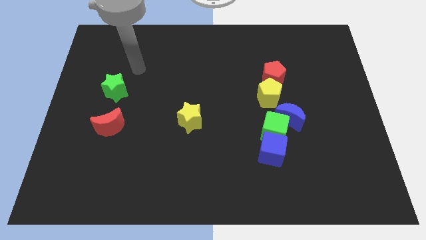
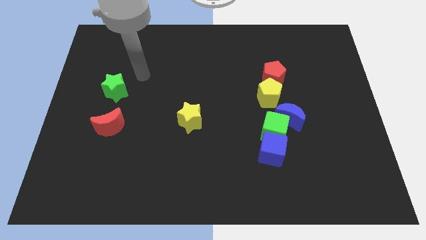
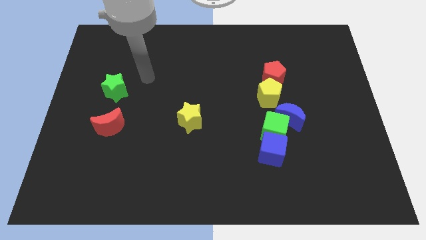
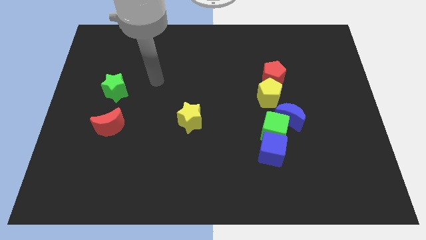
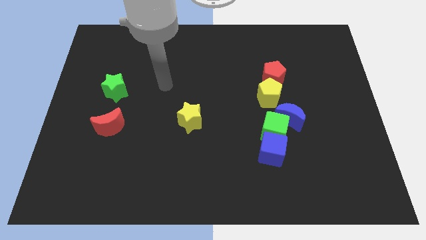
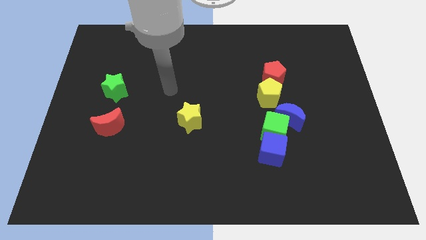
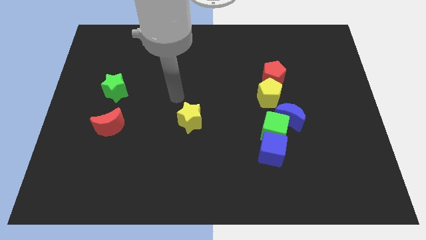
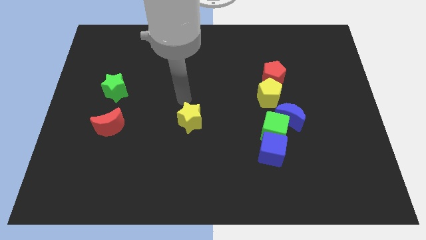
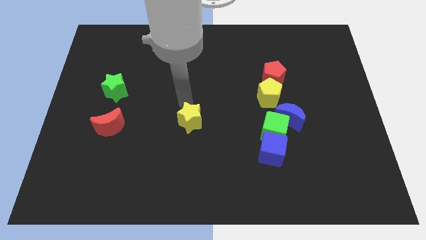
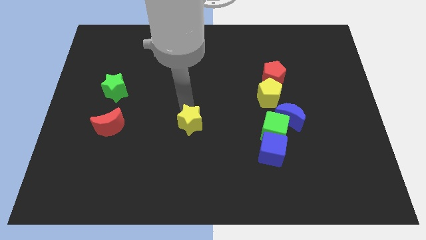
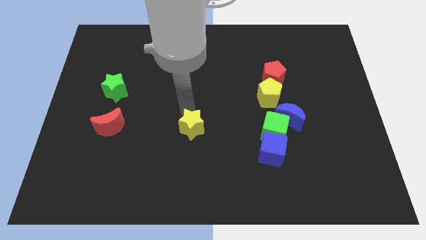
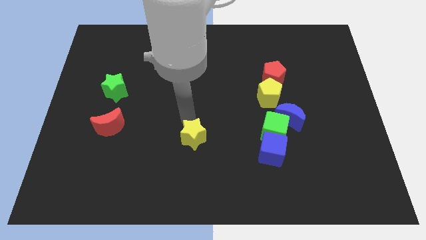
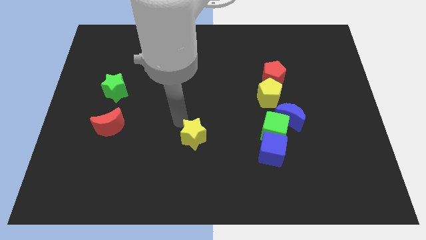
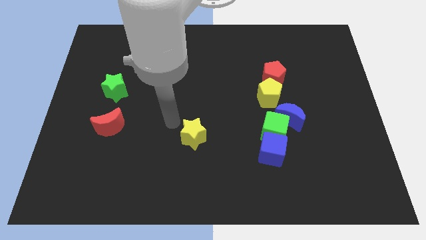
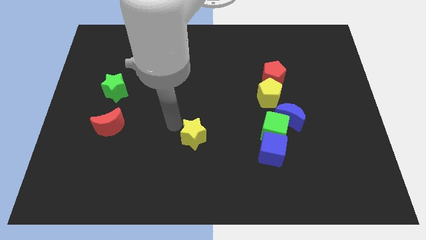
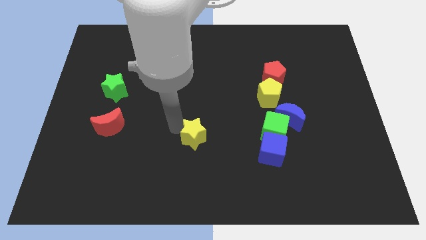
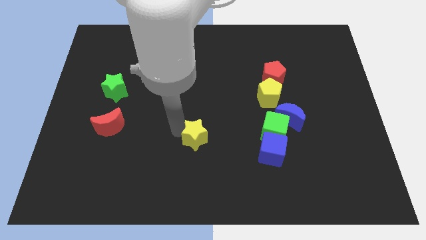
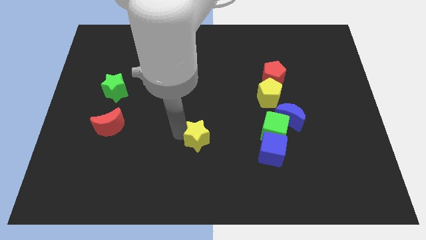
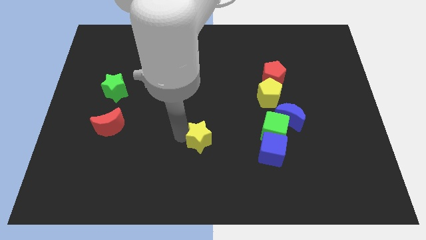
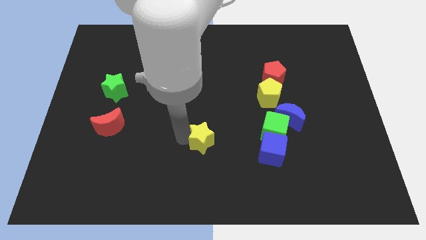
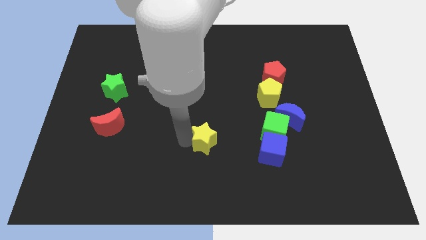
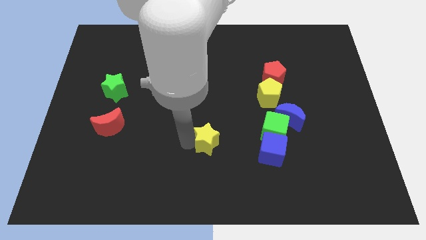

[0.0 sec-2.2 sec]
slide the yellow star somewhat down and then to the right

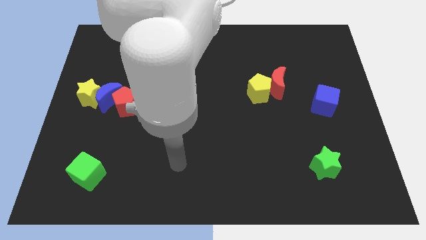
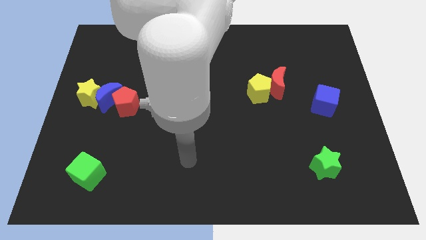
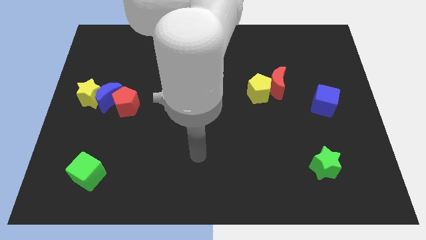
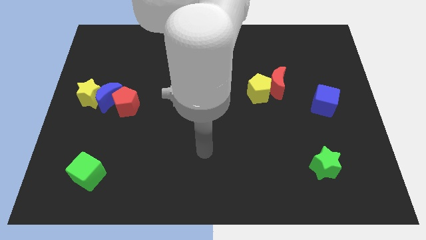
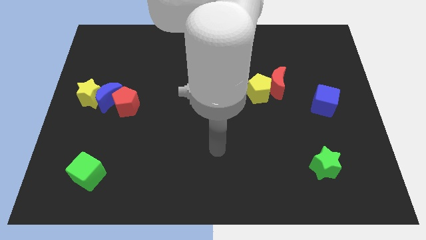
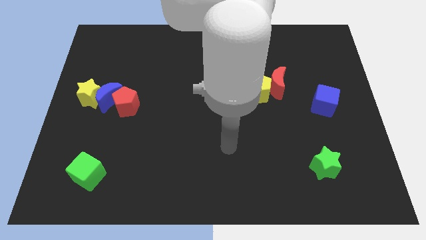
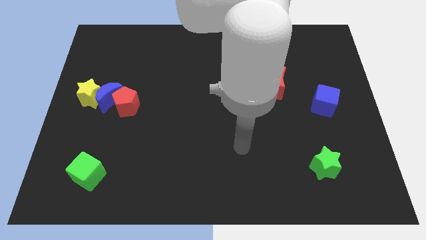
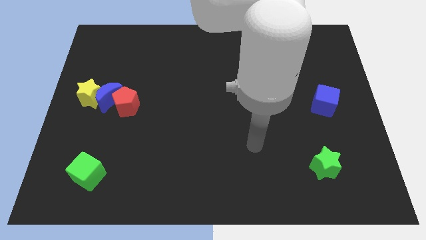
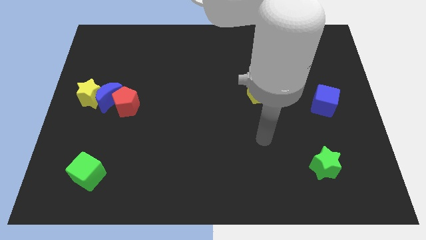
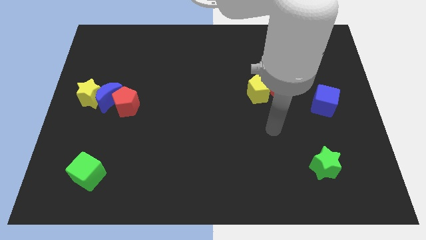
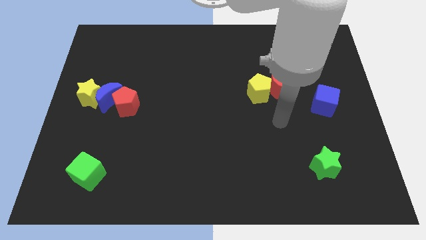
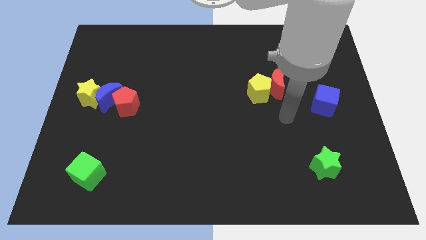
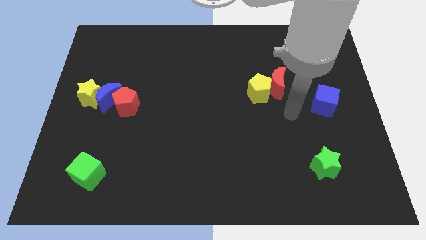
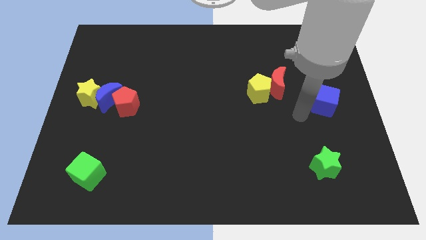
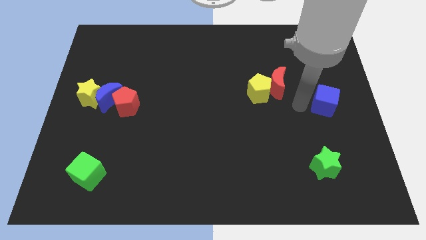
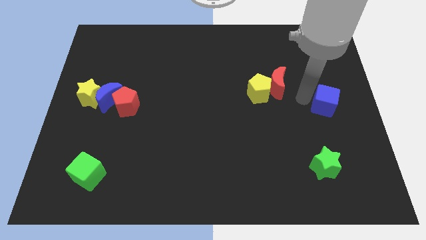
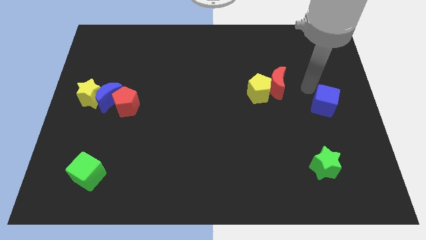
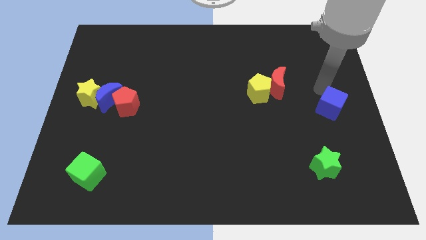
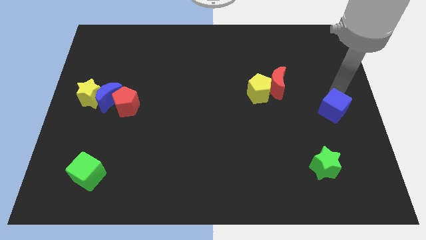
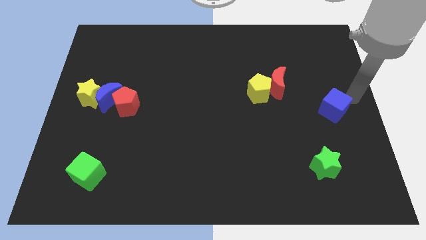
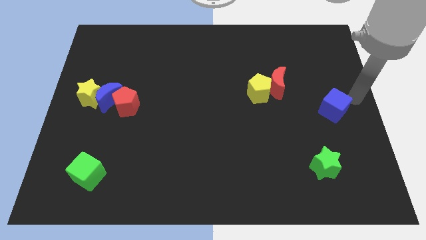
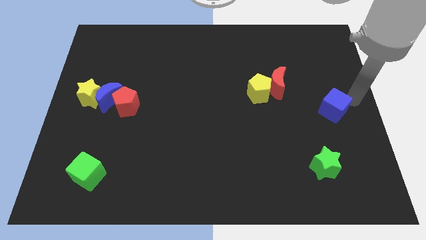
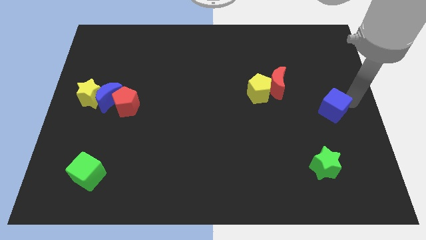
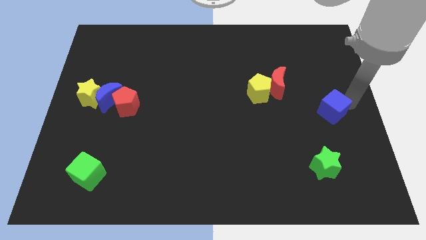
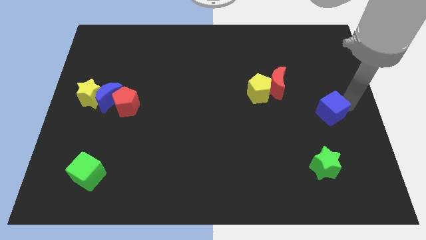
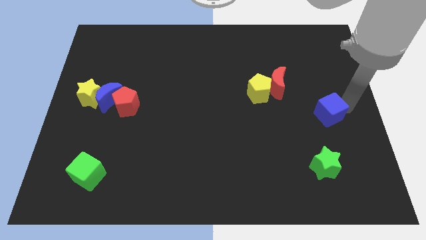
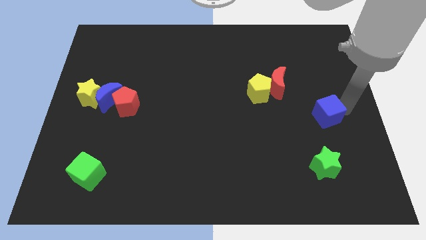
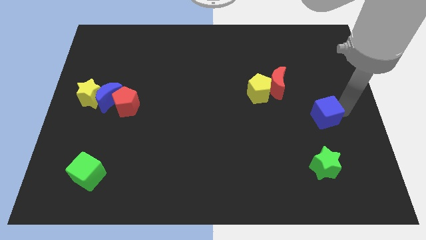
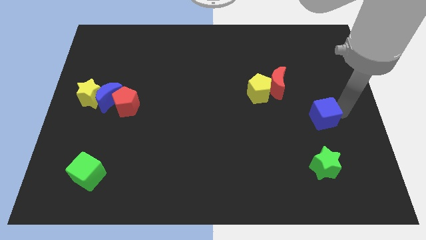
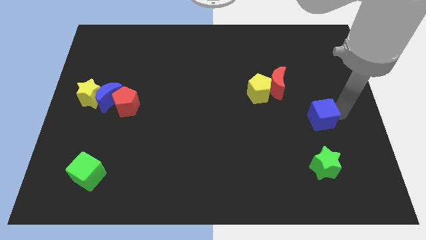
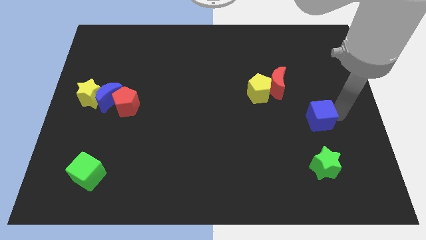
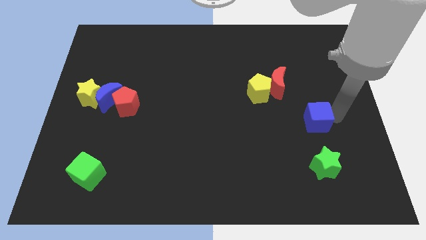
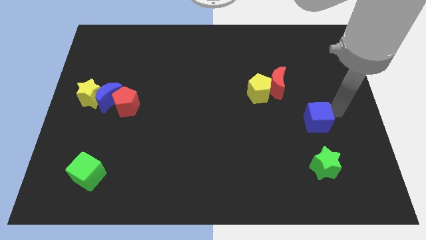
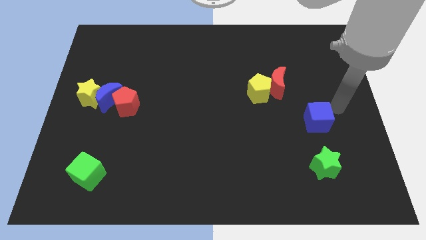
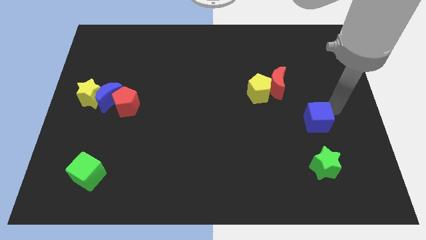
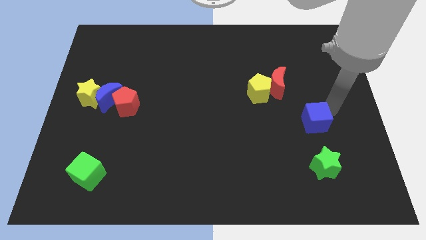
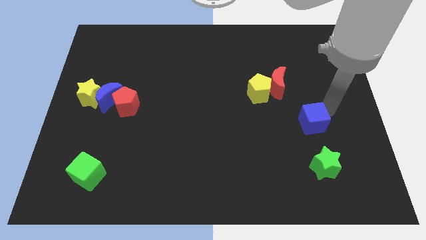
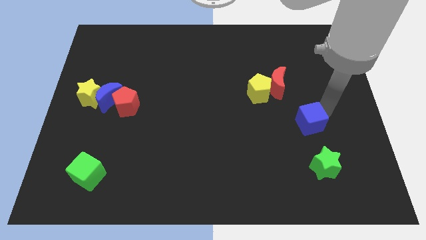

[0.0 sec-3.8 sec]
push the blue cube downwards and left diagonally somewhat

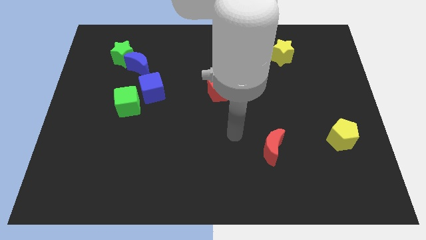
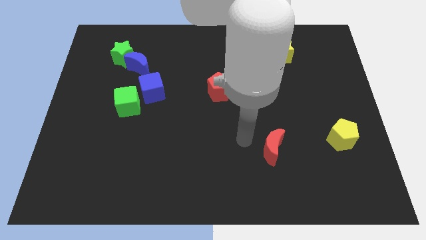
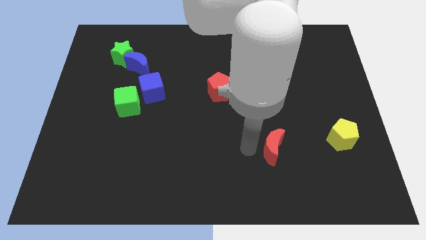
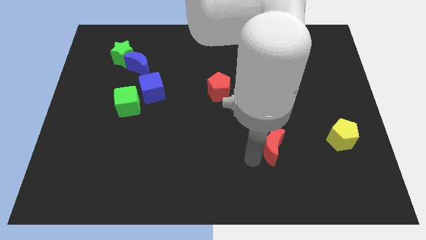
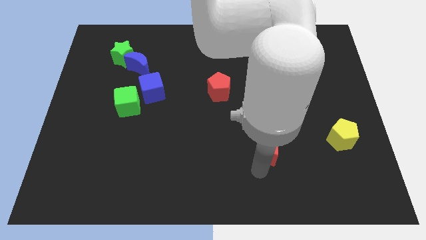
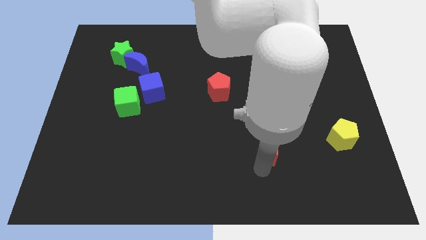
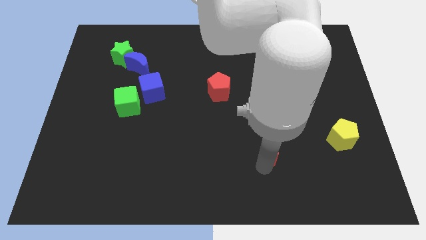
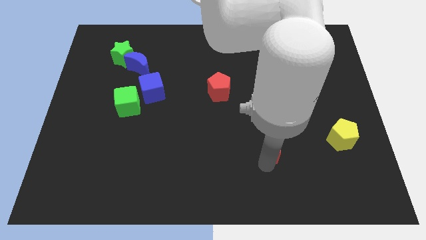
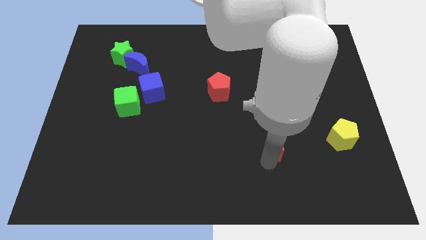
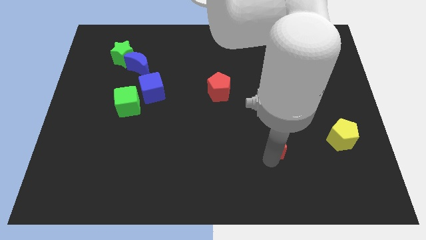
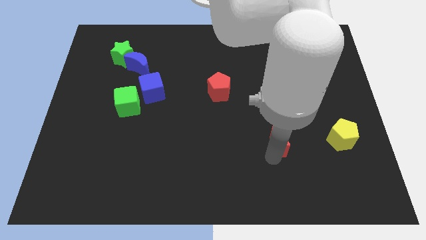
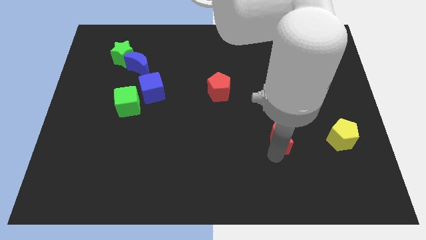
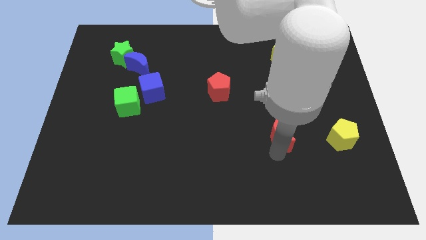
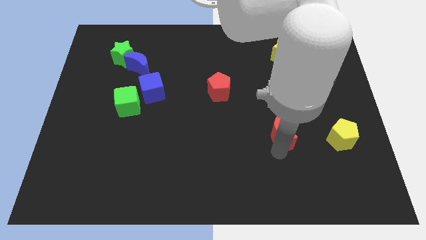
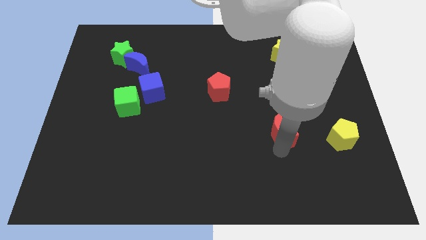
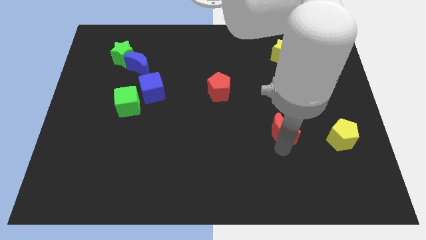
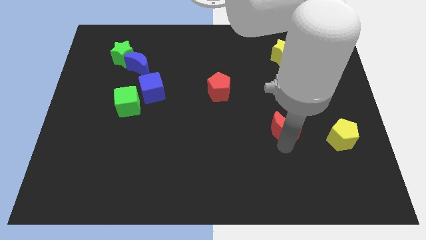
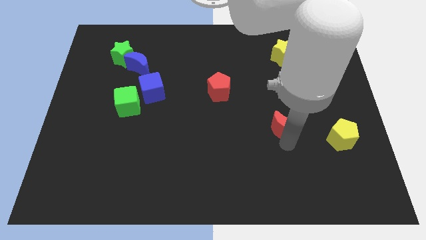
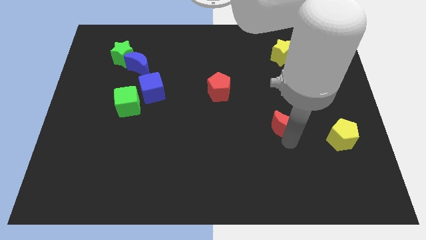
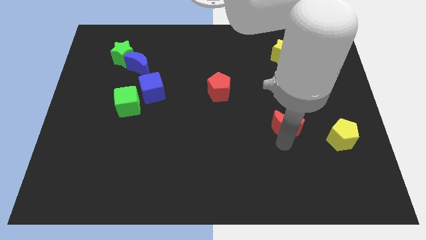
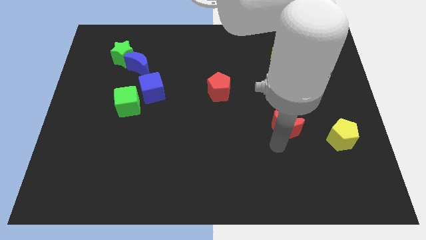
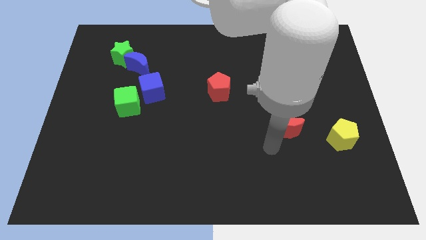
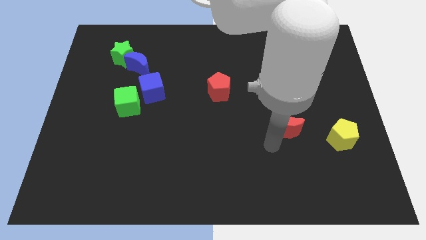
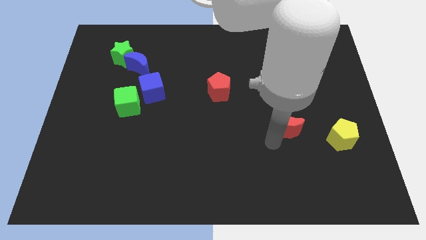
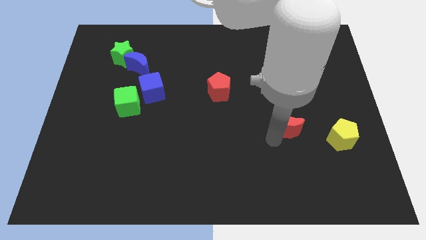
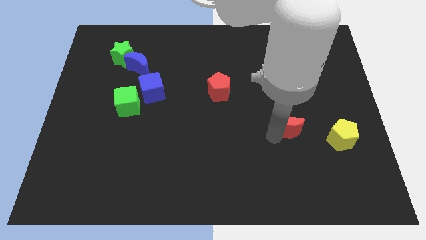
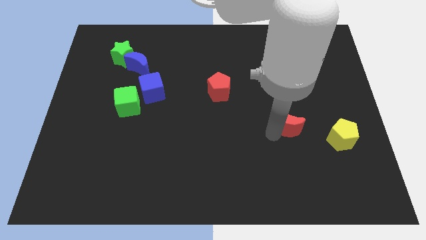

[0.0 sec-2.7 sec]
push the red moon up and right a little
